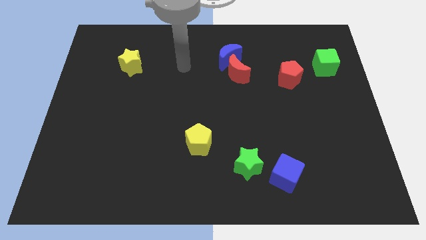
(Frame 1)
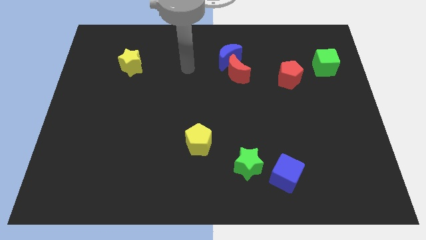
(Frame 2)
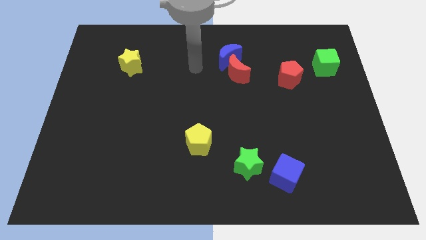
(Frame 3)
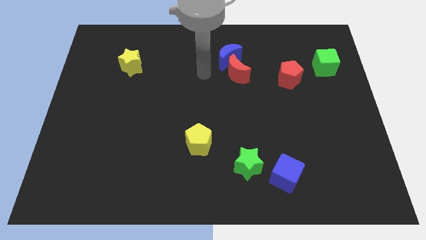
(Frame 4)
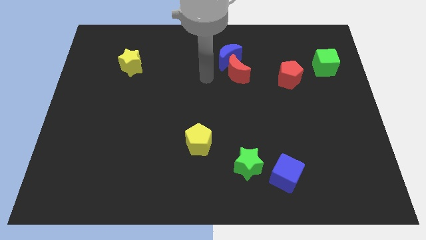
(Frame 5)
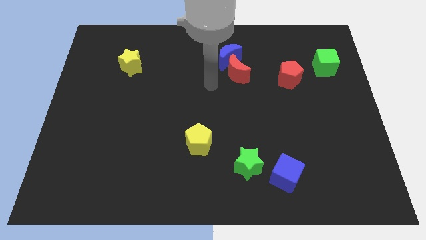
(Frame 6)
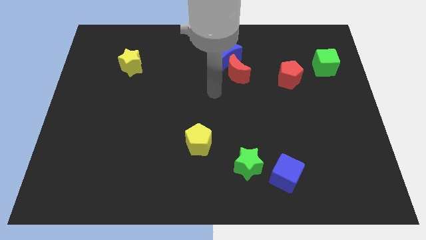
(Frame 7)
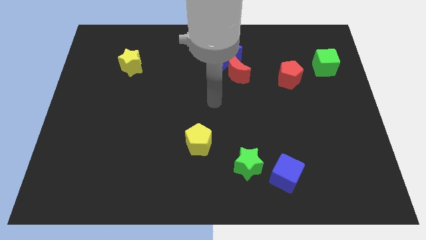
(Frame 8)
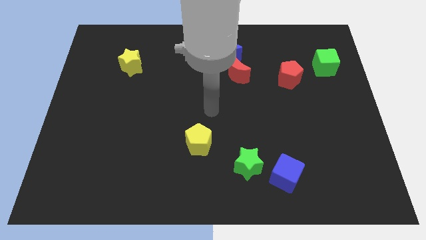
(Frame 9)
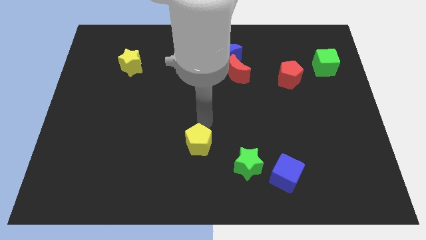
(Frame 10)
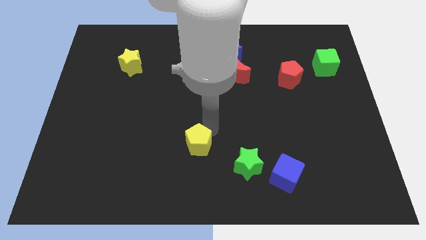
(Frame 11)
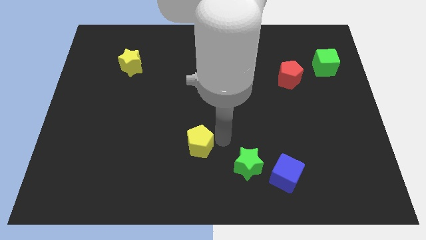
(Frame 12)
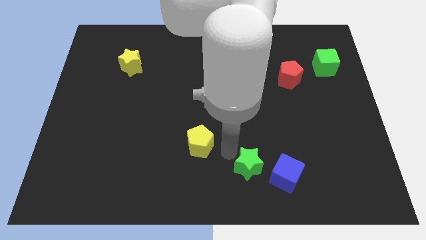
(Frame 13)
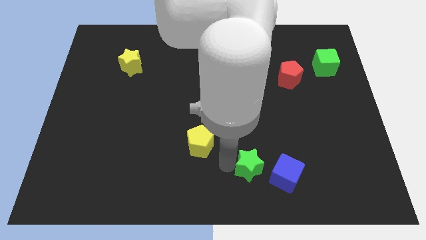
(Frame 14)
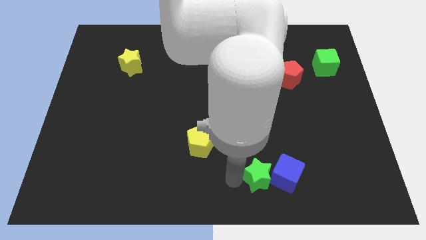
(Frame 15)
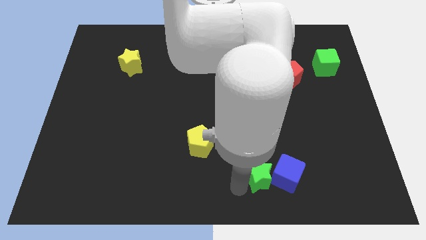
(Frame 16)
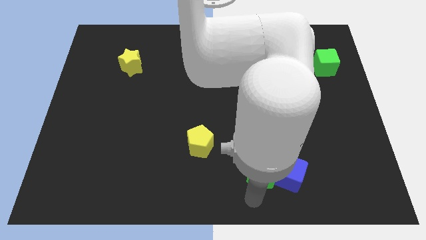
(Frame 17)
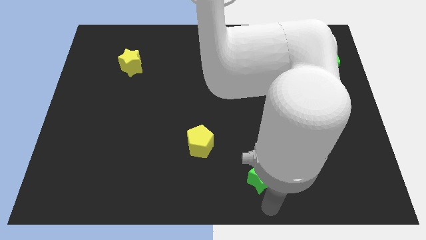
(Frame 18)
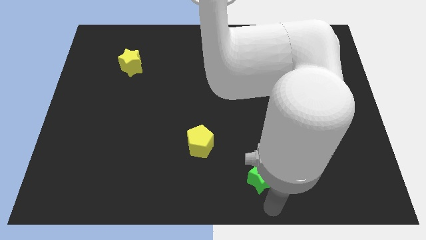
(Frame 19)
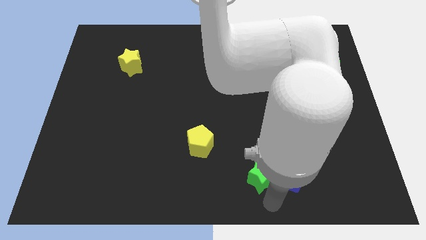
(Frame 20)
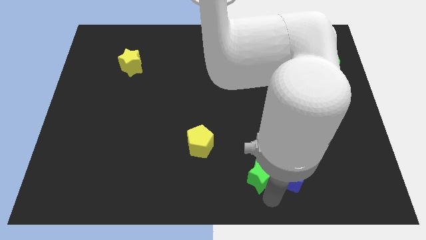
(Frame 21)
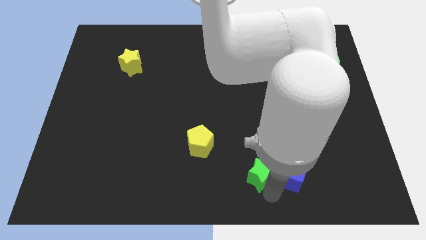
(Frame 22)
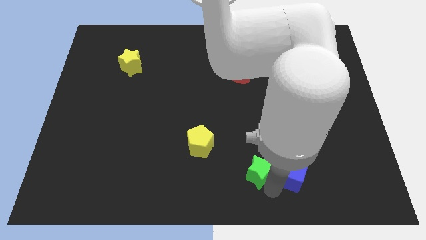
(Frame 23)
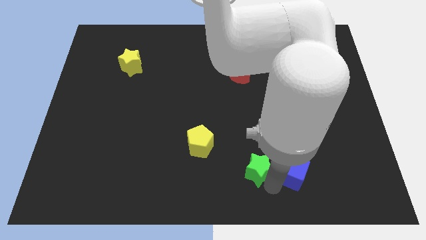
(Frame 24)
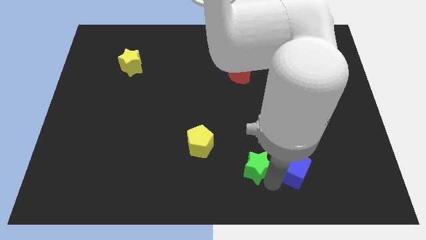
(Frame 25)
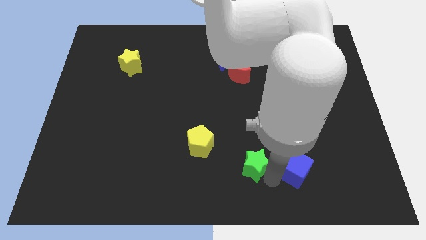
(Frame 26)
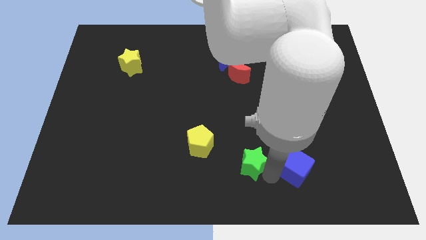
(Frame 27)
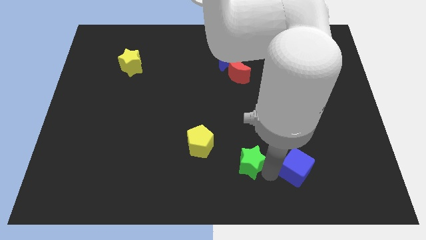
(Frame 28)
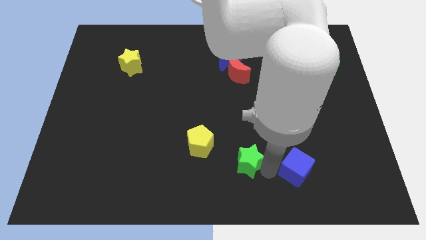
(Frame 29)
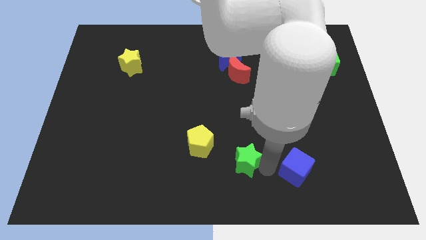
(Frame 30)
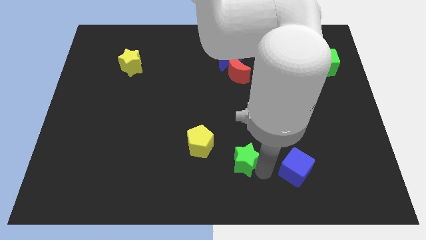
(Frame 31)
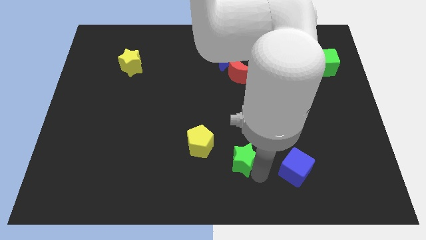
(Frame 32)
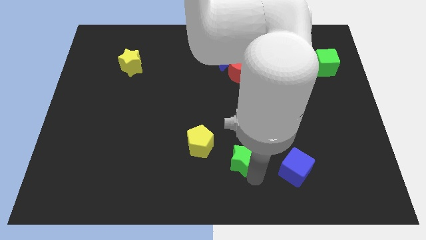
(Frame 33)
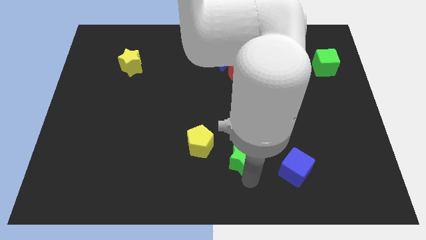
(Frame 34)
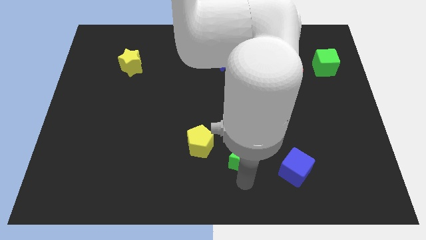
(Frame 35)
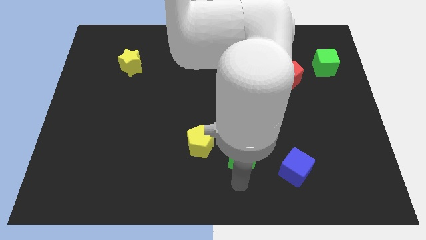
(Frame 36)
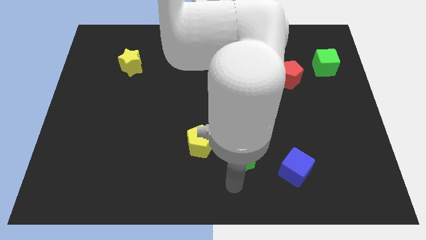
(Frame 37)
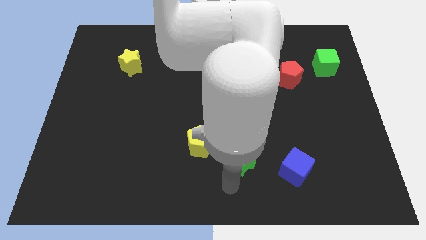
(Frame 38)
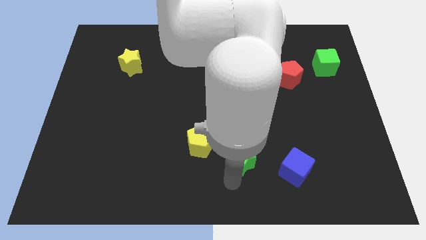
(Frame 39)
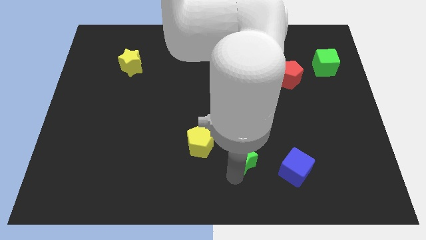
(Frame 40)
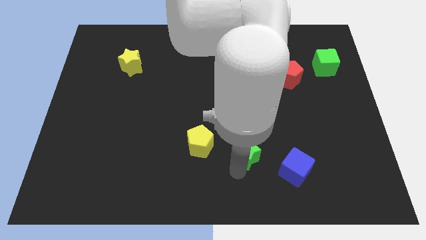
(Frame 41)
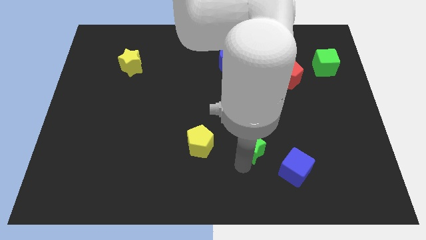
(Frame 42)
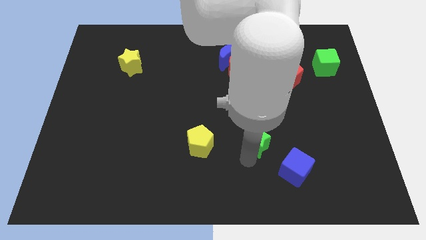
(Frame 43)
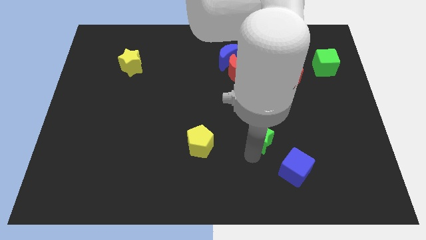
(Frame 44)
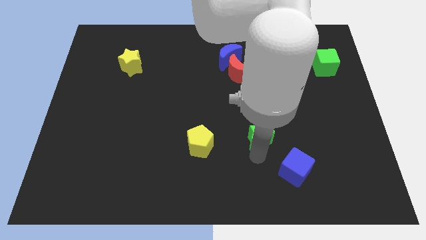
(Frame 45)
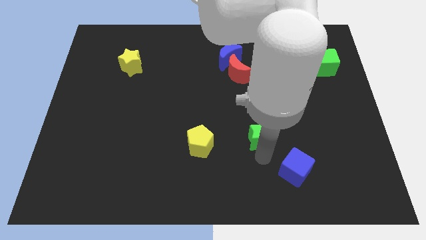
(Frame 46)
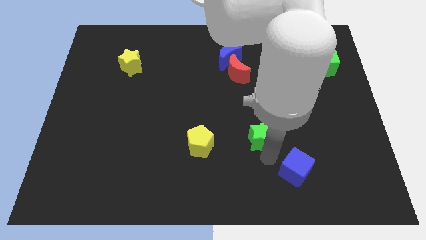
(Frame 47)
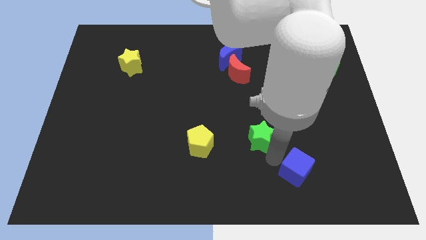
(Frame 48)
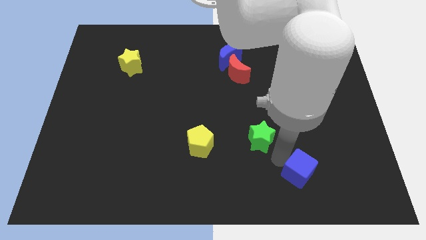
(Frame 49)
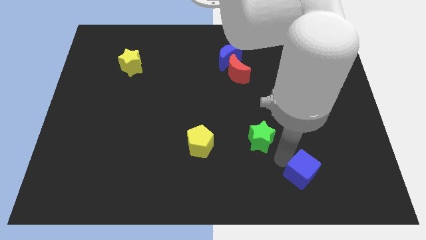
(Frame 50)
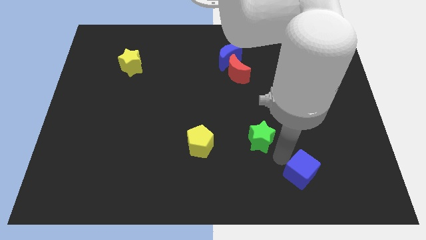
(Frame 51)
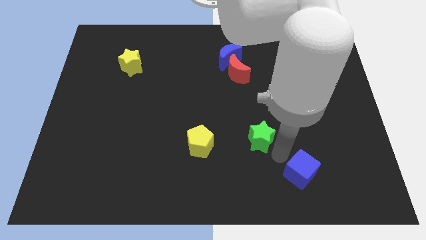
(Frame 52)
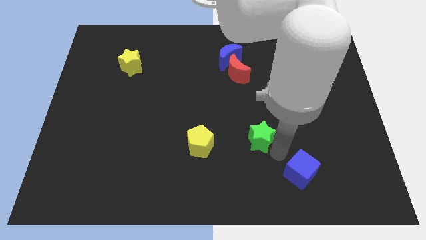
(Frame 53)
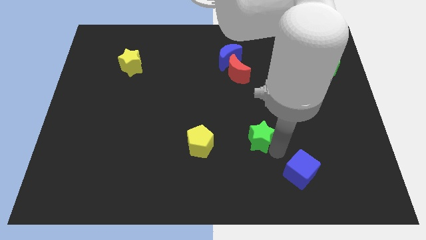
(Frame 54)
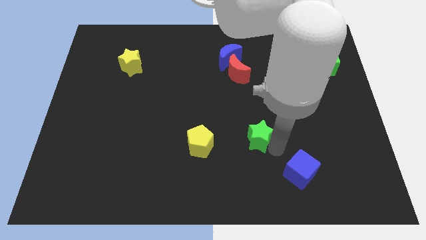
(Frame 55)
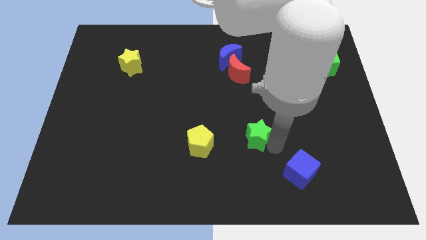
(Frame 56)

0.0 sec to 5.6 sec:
move the green star a little up

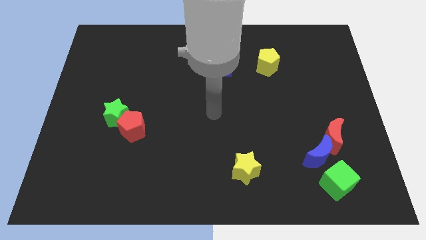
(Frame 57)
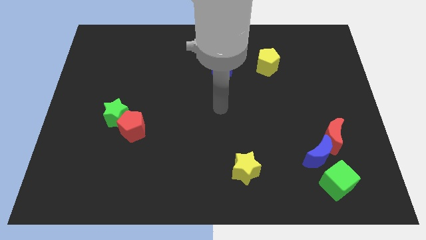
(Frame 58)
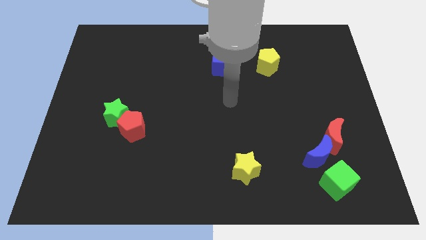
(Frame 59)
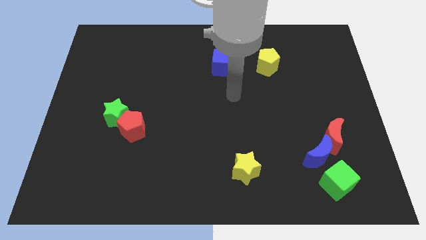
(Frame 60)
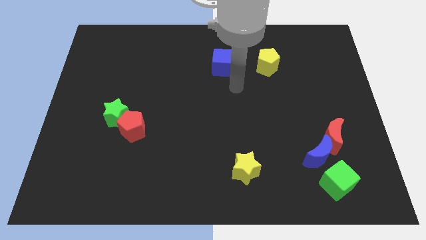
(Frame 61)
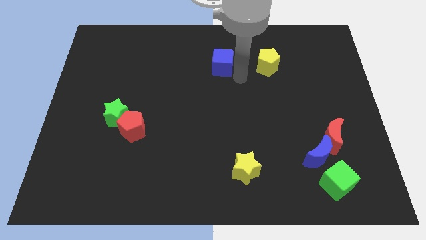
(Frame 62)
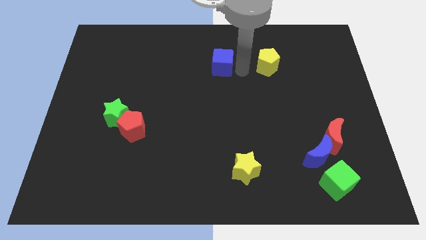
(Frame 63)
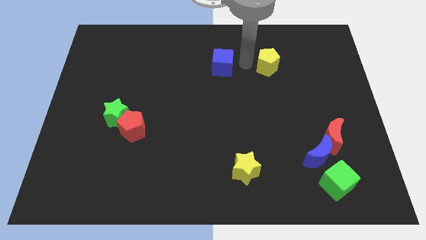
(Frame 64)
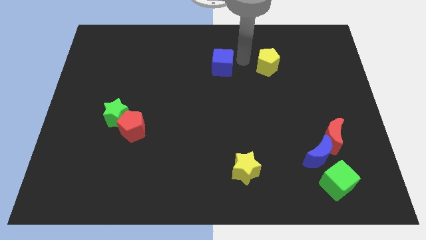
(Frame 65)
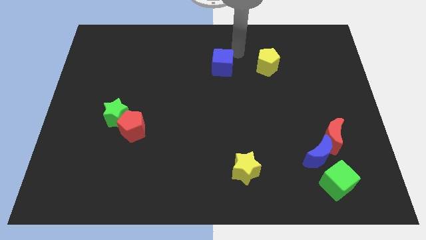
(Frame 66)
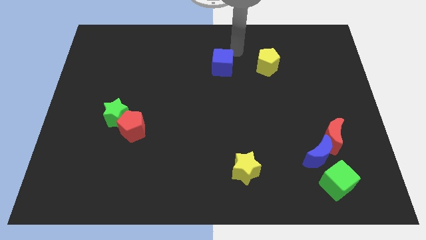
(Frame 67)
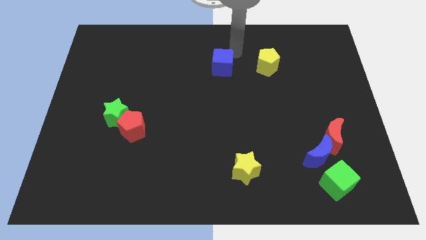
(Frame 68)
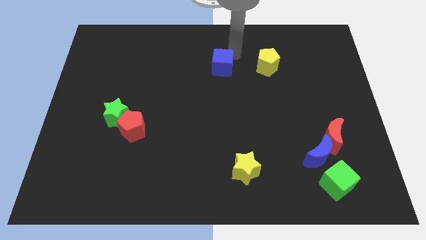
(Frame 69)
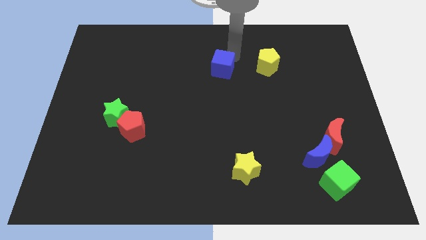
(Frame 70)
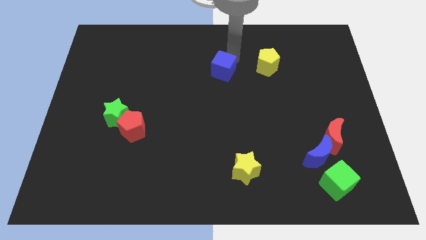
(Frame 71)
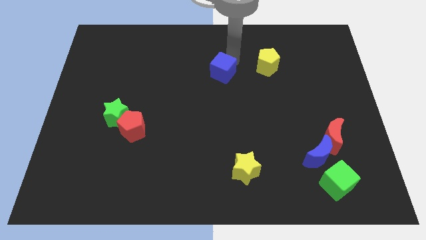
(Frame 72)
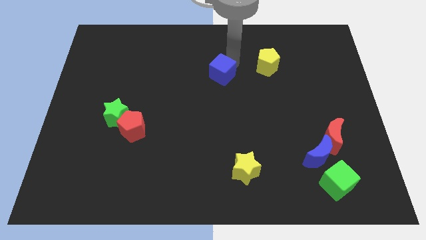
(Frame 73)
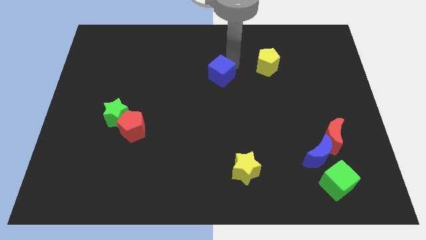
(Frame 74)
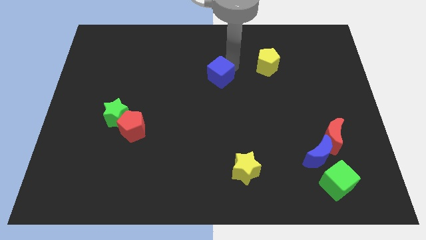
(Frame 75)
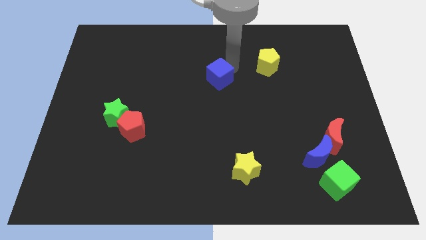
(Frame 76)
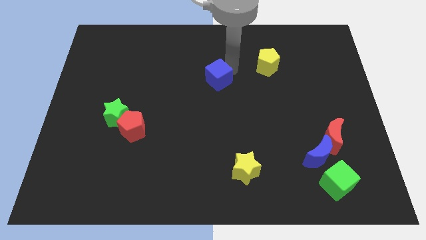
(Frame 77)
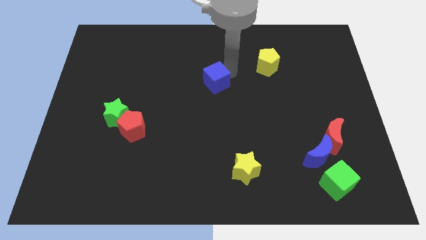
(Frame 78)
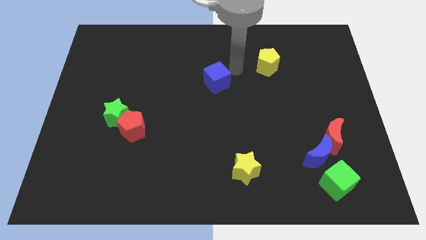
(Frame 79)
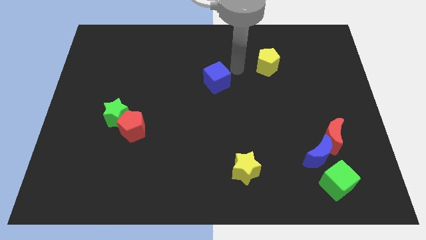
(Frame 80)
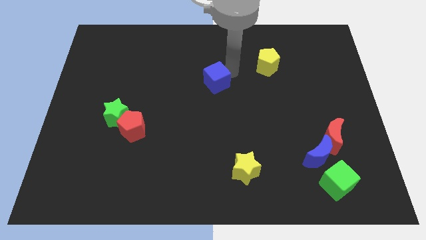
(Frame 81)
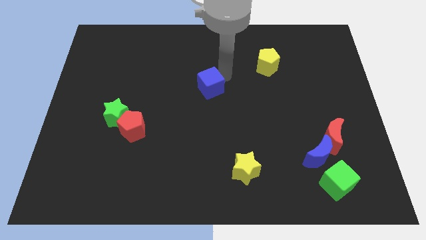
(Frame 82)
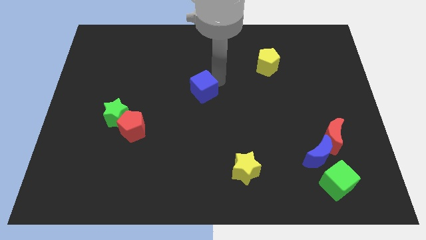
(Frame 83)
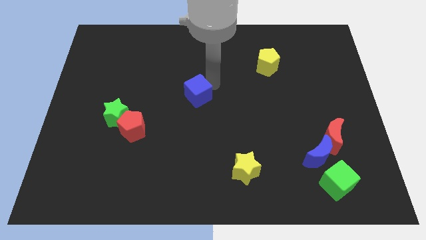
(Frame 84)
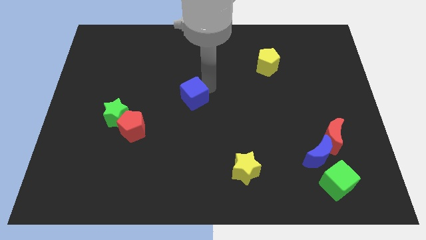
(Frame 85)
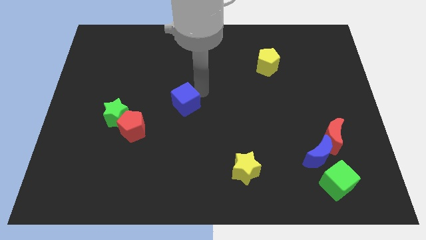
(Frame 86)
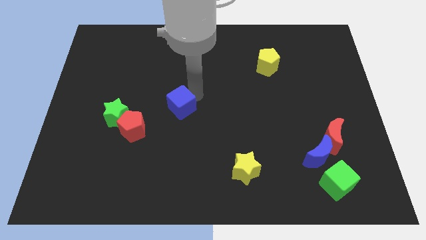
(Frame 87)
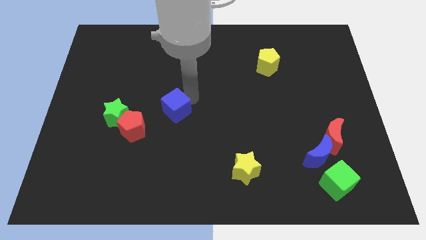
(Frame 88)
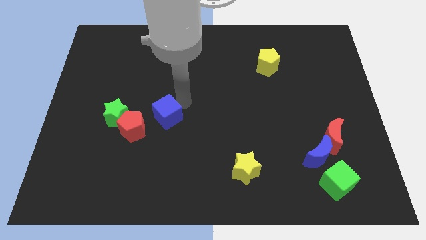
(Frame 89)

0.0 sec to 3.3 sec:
push the blue cube diagonally down and to the left
